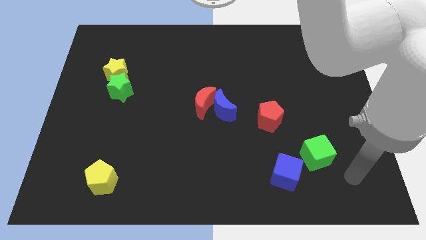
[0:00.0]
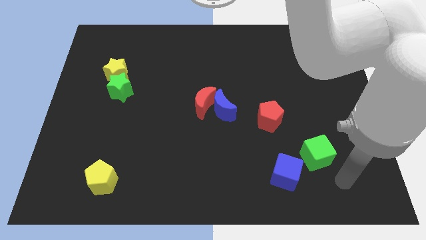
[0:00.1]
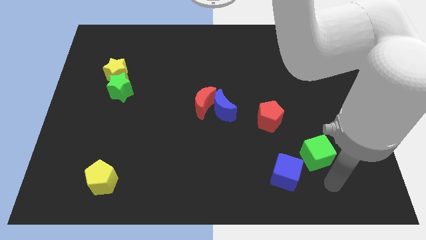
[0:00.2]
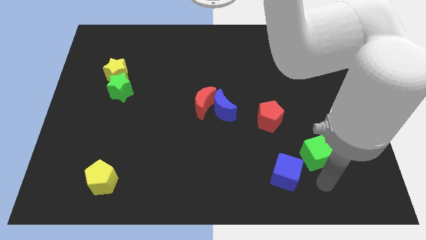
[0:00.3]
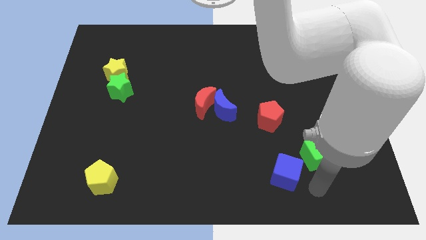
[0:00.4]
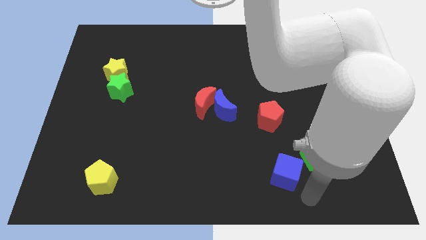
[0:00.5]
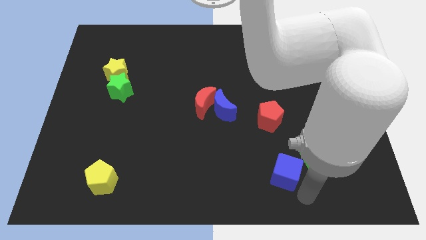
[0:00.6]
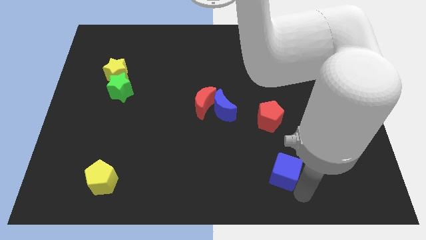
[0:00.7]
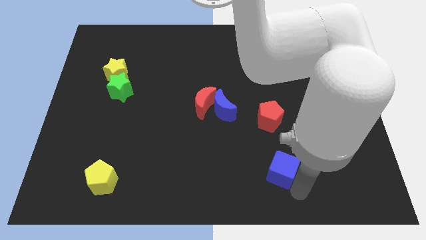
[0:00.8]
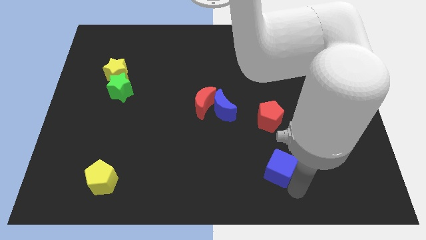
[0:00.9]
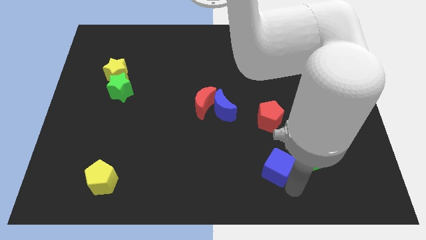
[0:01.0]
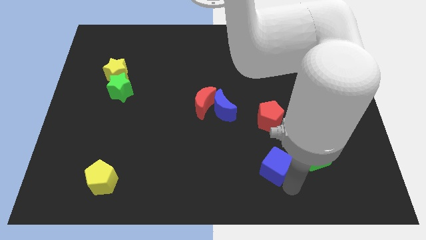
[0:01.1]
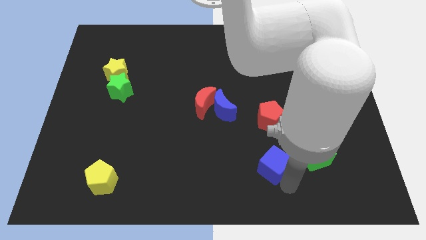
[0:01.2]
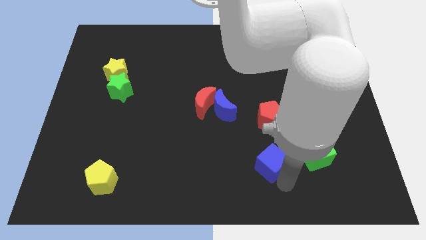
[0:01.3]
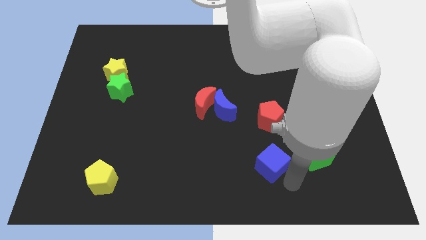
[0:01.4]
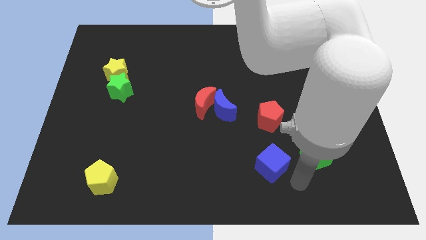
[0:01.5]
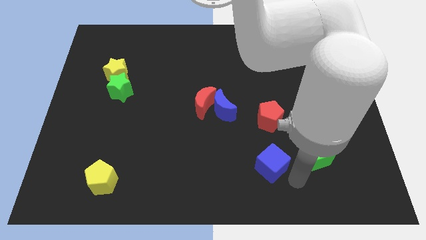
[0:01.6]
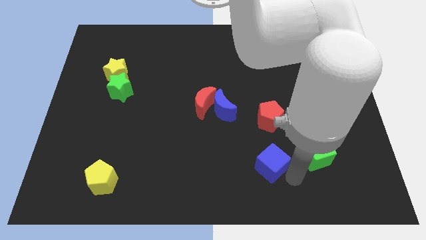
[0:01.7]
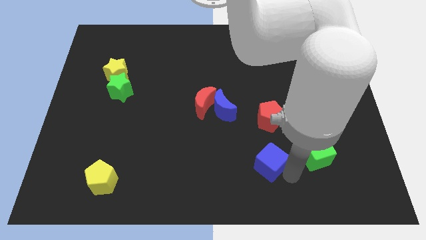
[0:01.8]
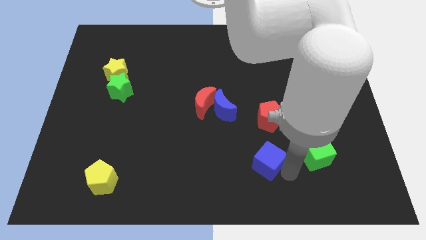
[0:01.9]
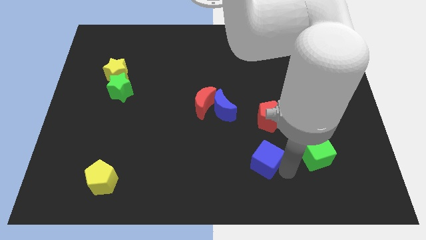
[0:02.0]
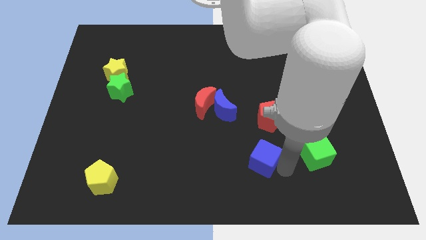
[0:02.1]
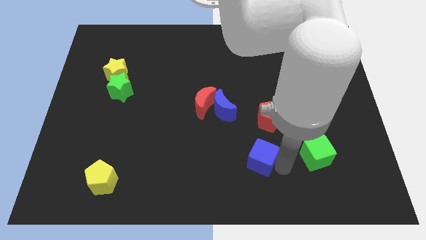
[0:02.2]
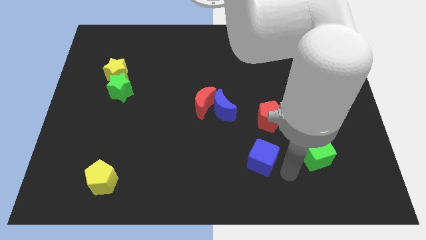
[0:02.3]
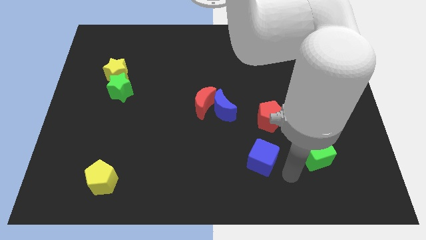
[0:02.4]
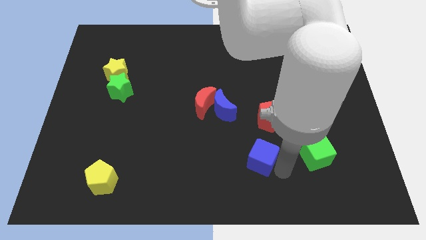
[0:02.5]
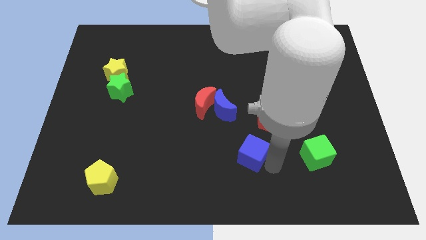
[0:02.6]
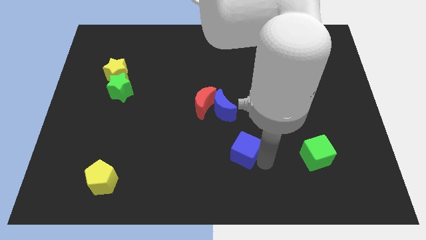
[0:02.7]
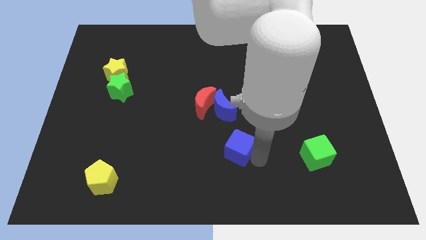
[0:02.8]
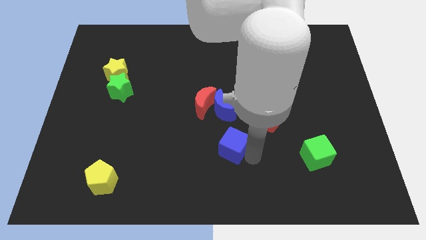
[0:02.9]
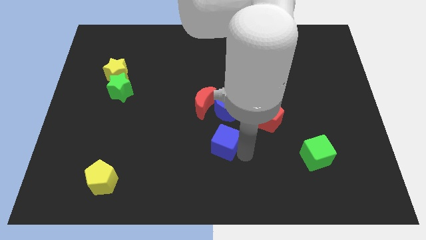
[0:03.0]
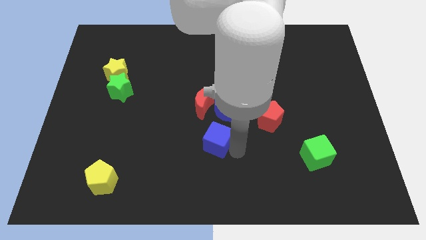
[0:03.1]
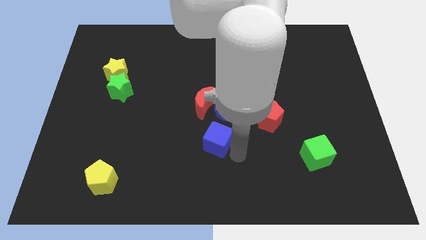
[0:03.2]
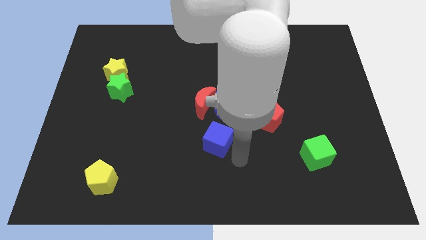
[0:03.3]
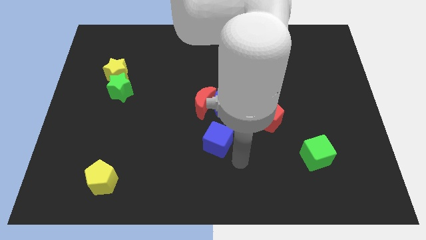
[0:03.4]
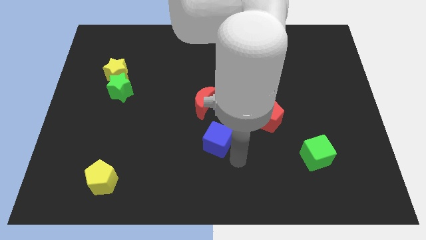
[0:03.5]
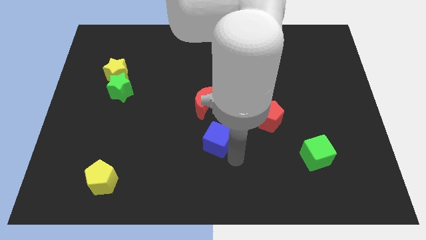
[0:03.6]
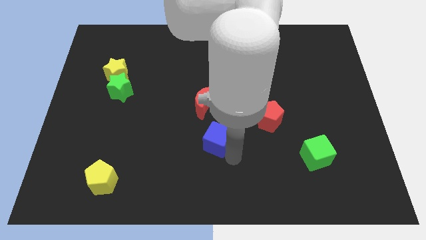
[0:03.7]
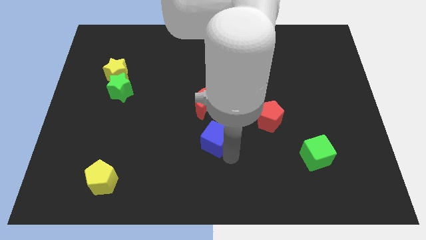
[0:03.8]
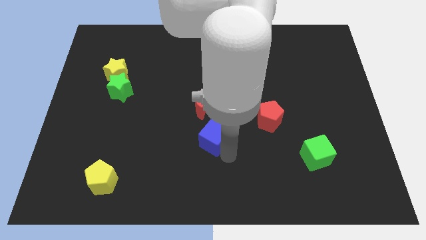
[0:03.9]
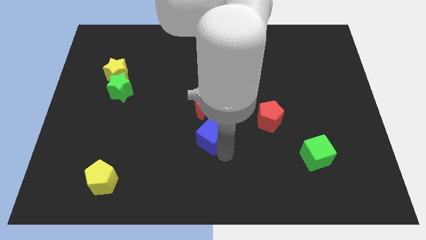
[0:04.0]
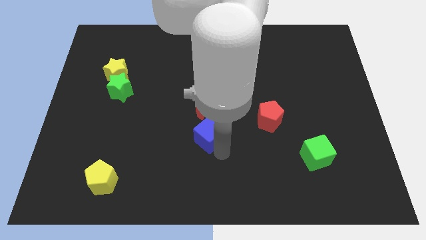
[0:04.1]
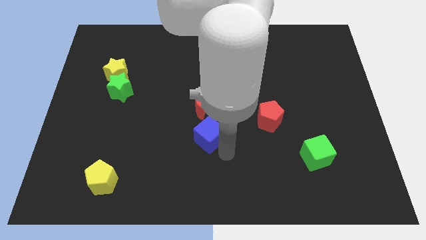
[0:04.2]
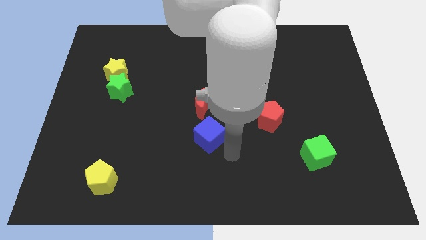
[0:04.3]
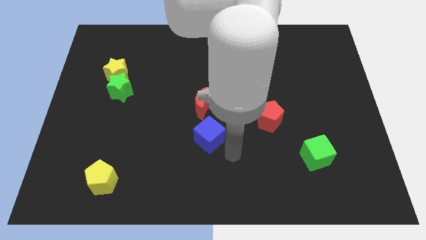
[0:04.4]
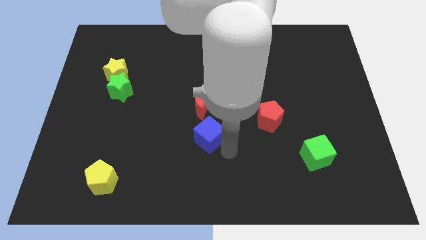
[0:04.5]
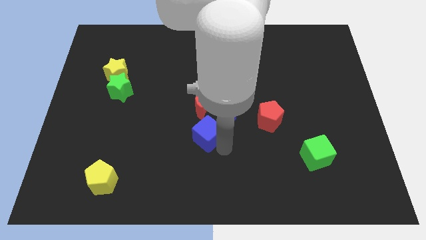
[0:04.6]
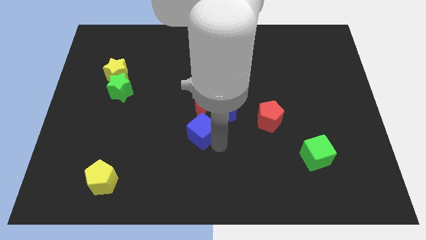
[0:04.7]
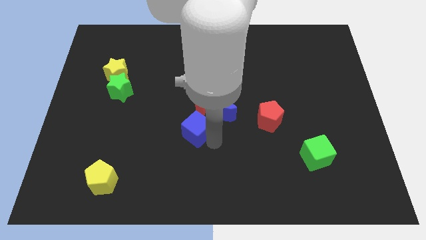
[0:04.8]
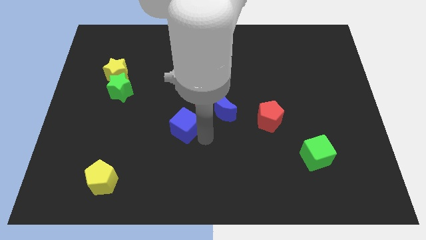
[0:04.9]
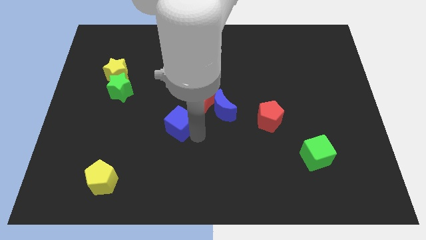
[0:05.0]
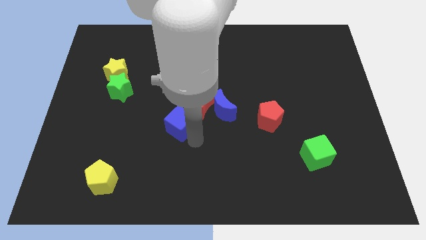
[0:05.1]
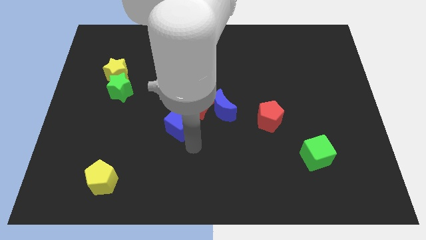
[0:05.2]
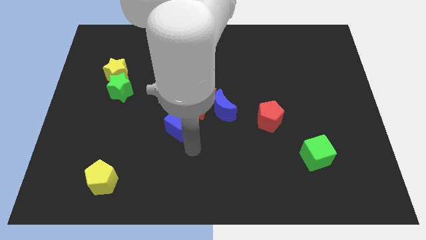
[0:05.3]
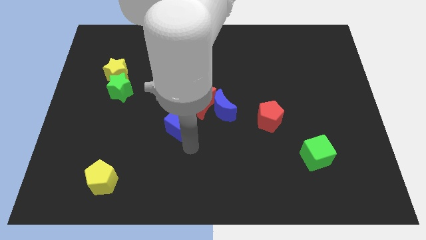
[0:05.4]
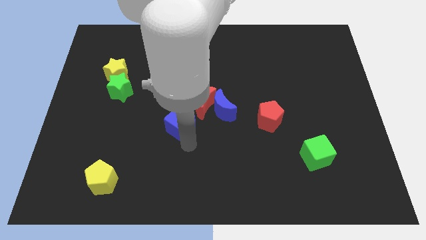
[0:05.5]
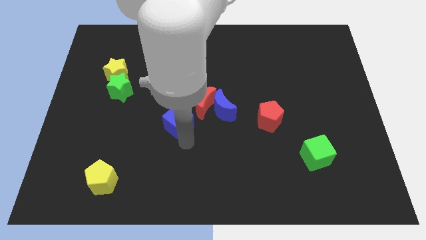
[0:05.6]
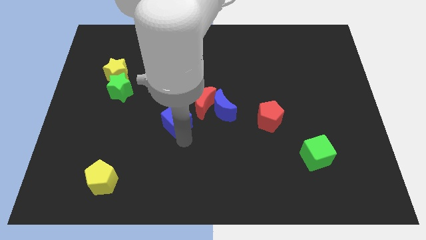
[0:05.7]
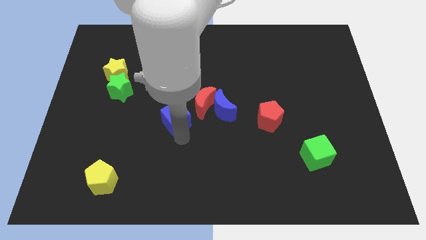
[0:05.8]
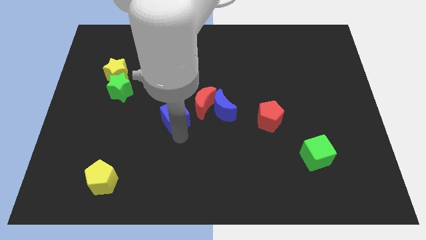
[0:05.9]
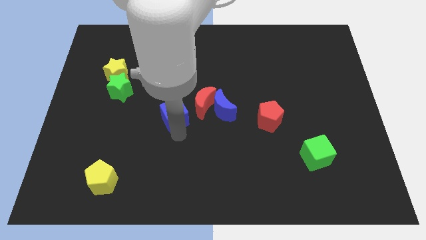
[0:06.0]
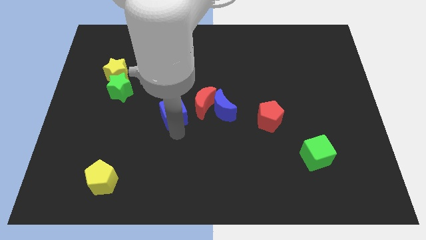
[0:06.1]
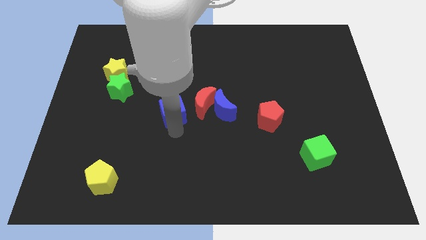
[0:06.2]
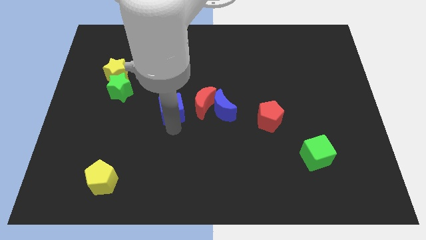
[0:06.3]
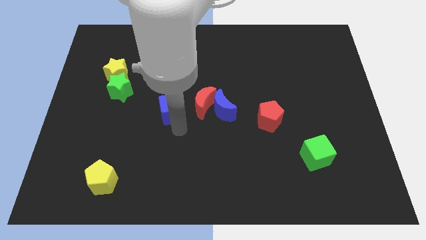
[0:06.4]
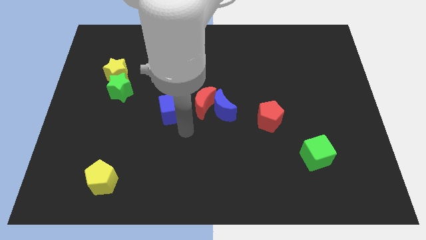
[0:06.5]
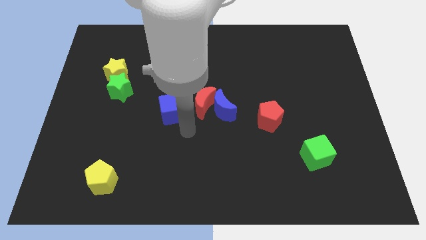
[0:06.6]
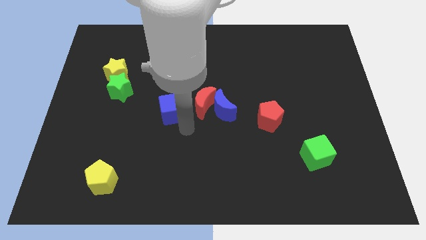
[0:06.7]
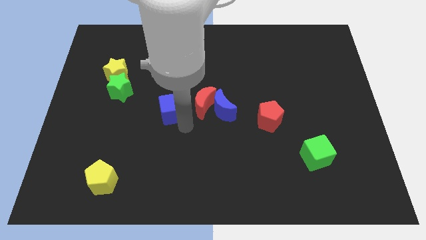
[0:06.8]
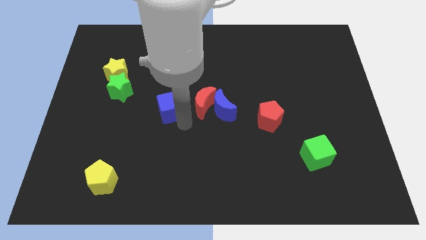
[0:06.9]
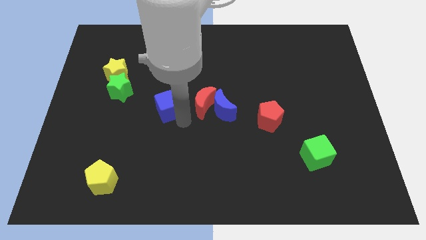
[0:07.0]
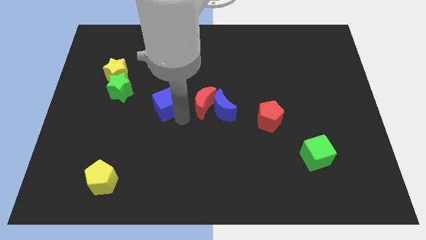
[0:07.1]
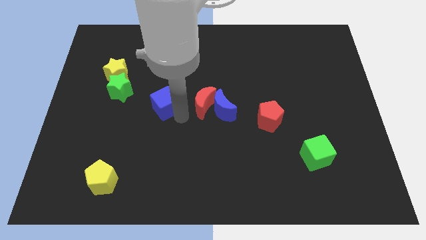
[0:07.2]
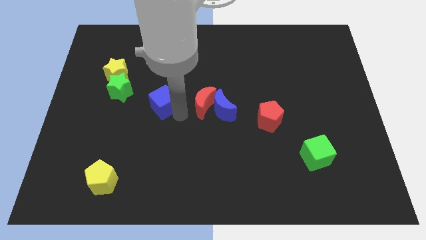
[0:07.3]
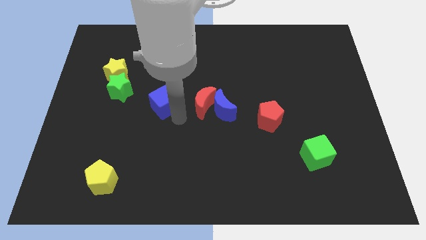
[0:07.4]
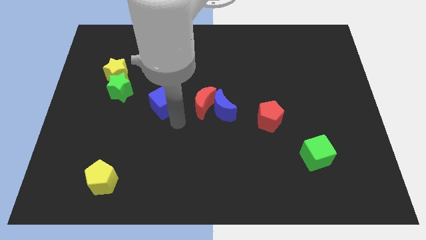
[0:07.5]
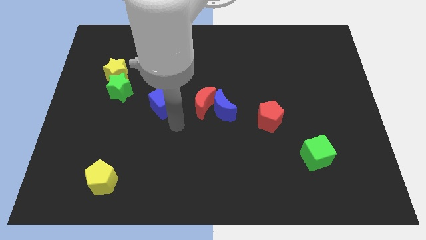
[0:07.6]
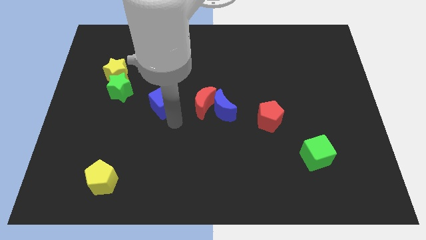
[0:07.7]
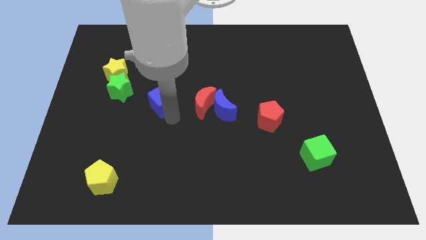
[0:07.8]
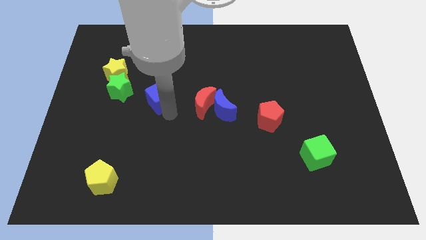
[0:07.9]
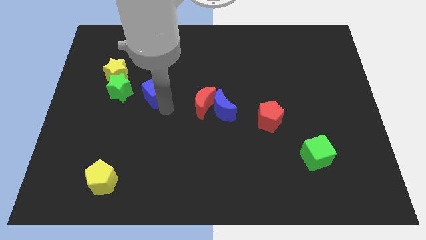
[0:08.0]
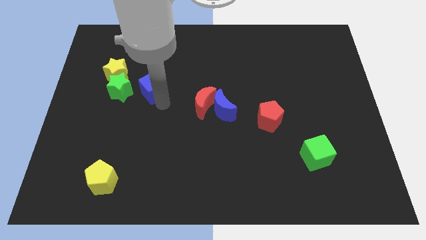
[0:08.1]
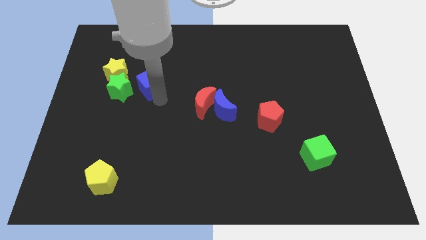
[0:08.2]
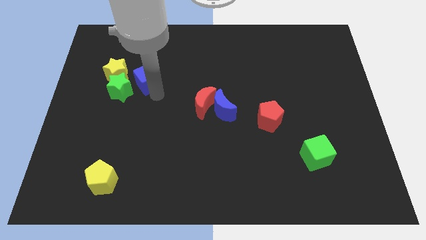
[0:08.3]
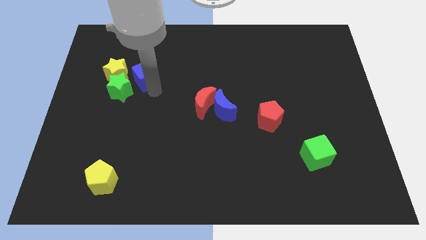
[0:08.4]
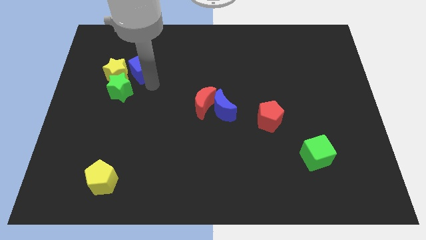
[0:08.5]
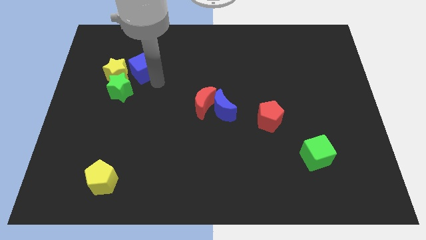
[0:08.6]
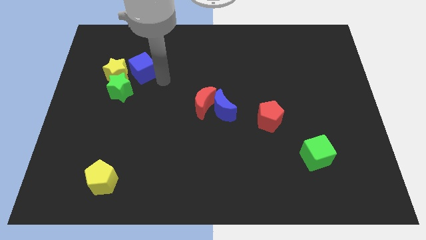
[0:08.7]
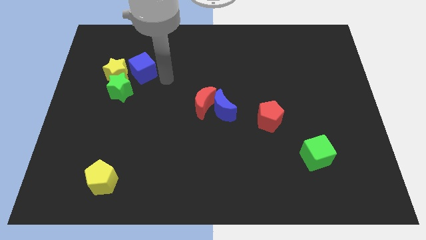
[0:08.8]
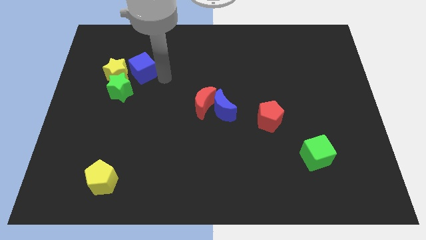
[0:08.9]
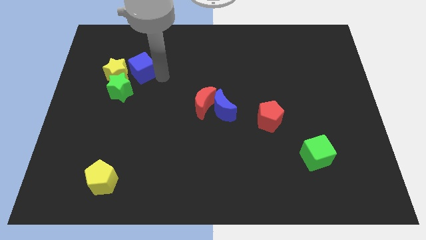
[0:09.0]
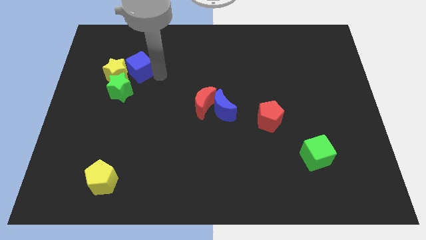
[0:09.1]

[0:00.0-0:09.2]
slide the blue cube next to the yellow star
